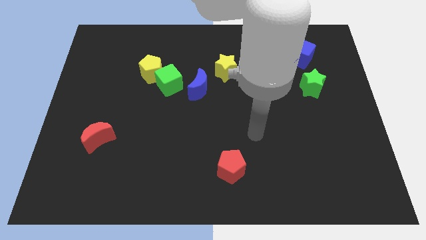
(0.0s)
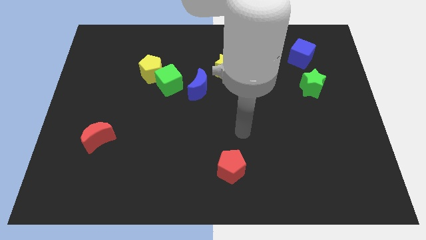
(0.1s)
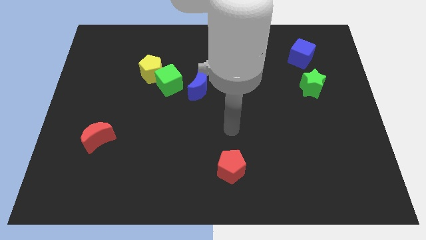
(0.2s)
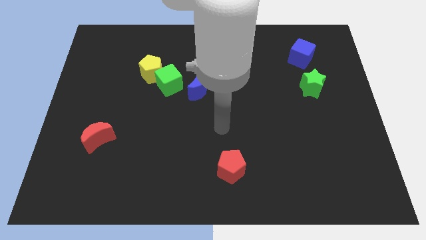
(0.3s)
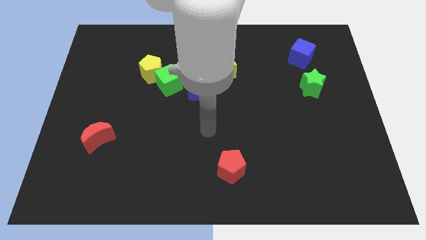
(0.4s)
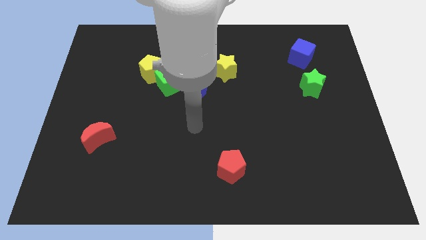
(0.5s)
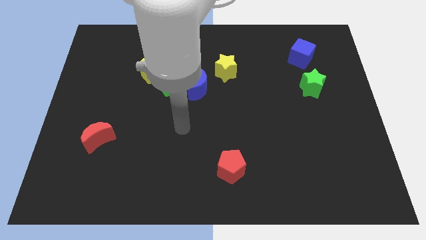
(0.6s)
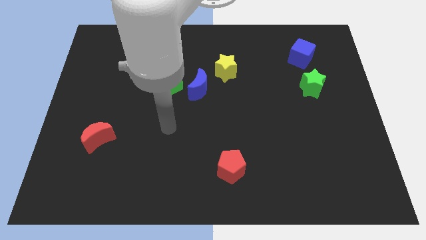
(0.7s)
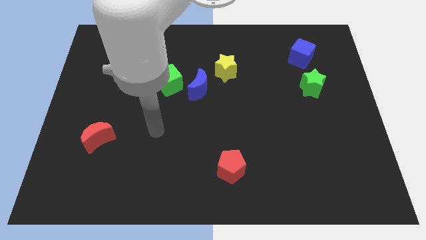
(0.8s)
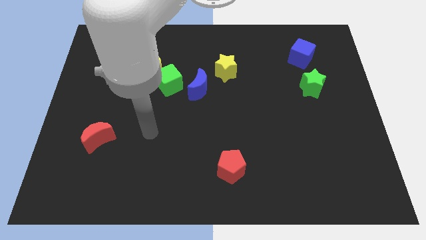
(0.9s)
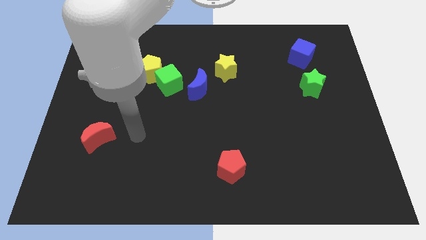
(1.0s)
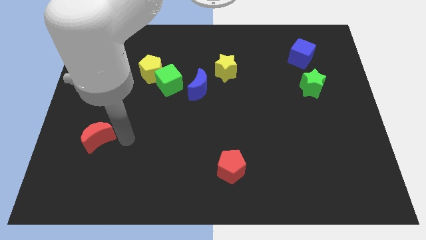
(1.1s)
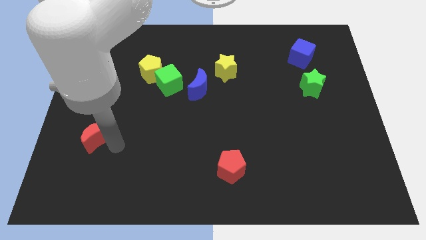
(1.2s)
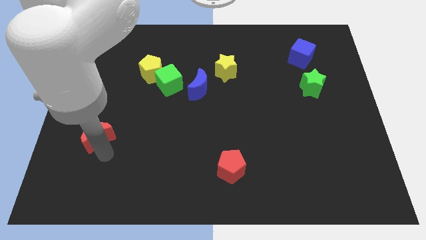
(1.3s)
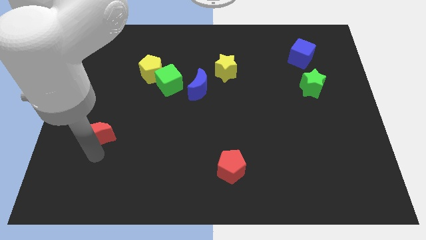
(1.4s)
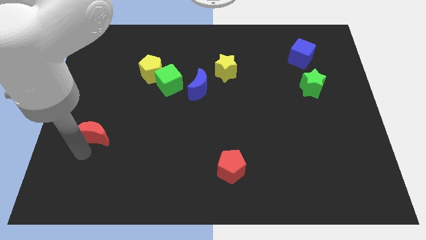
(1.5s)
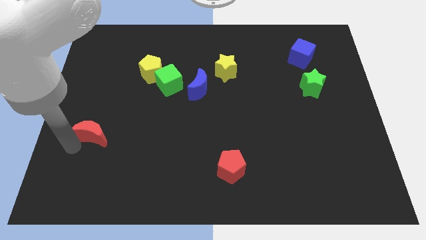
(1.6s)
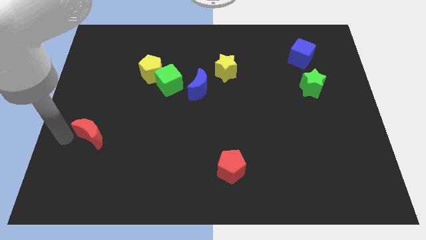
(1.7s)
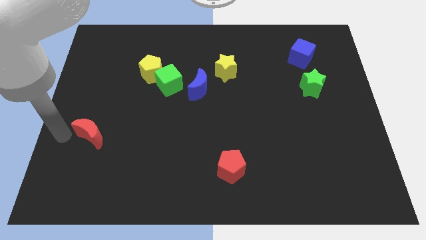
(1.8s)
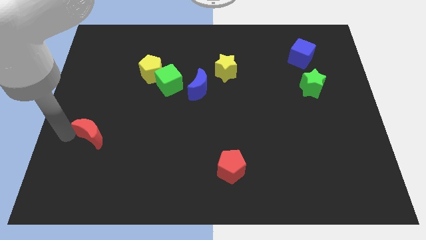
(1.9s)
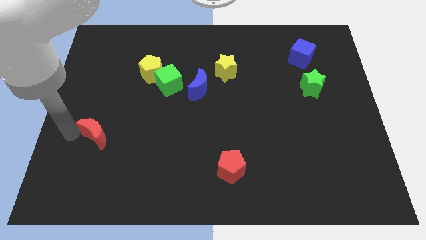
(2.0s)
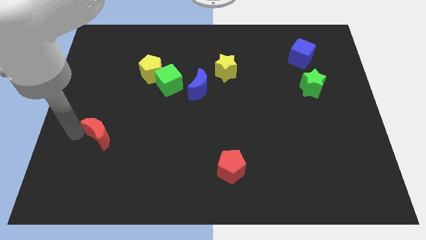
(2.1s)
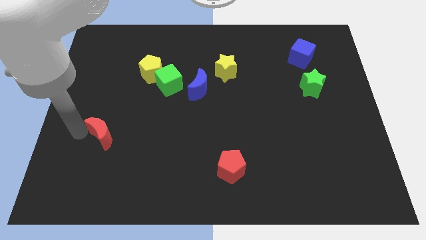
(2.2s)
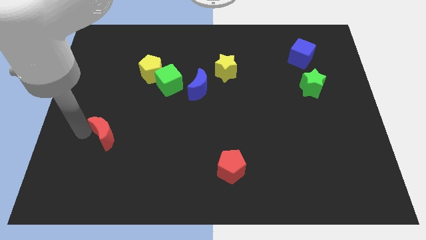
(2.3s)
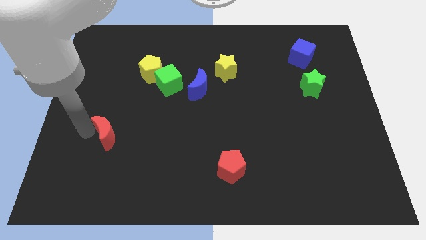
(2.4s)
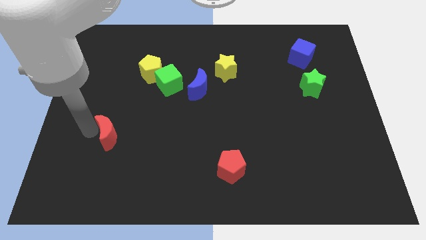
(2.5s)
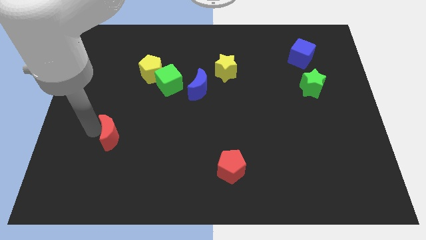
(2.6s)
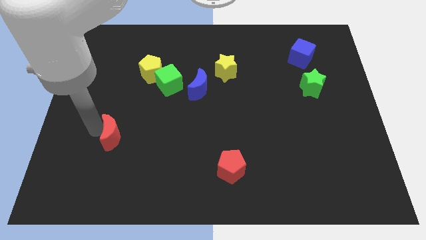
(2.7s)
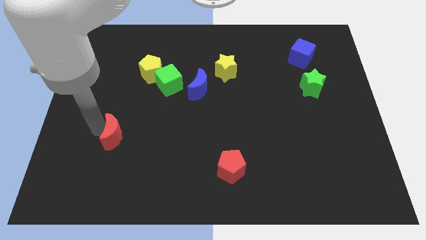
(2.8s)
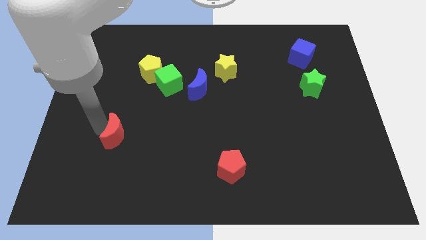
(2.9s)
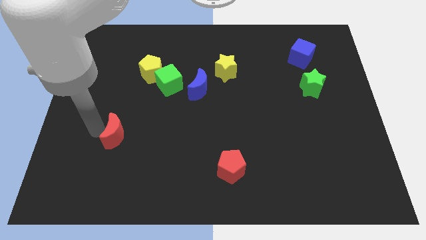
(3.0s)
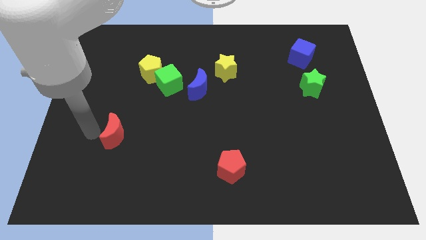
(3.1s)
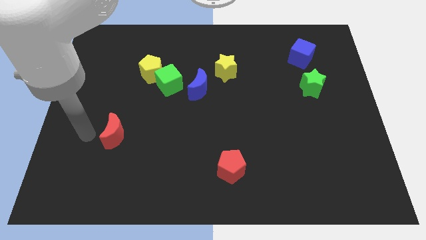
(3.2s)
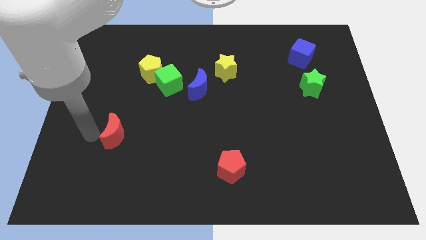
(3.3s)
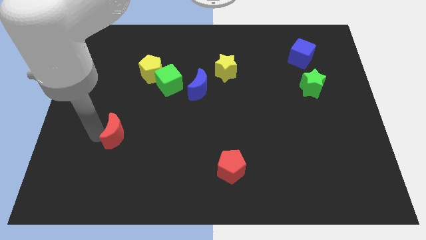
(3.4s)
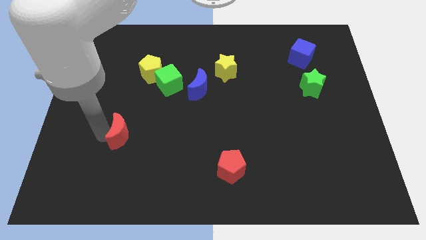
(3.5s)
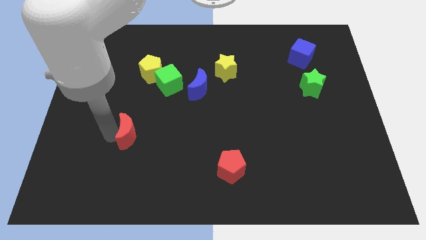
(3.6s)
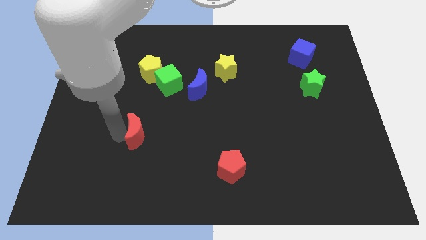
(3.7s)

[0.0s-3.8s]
push the red moon to the right a little

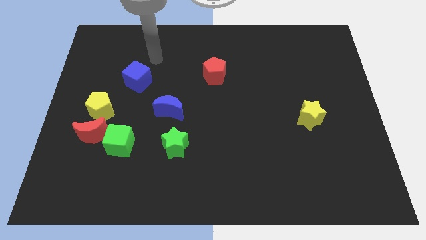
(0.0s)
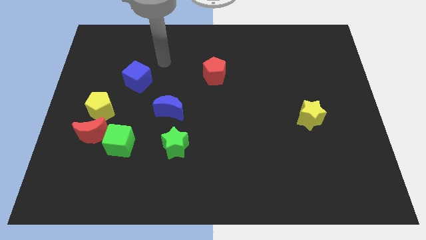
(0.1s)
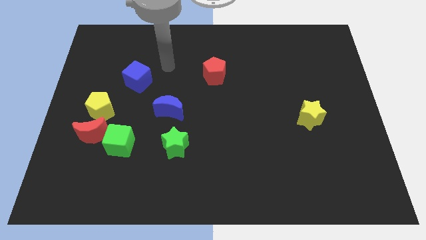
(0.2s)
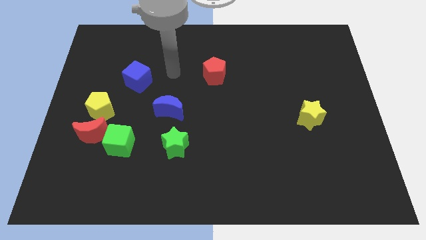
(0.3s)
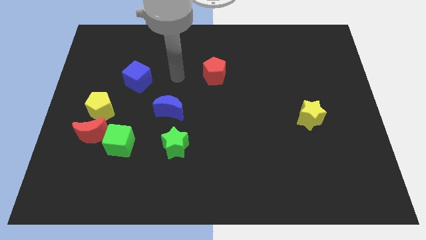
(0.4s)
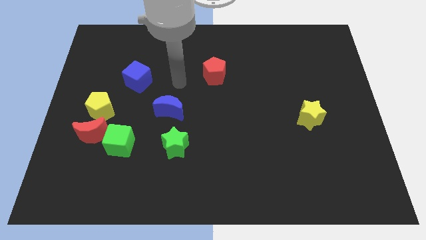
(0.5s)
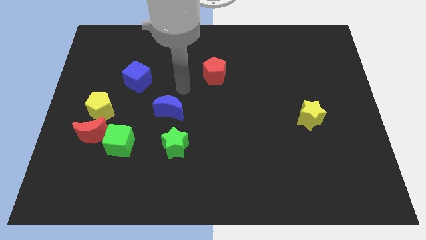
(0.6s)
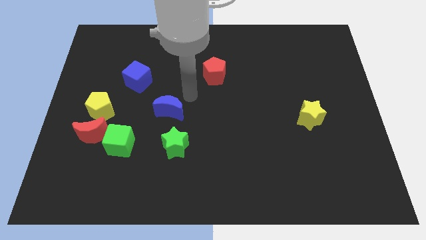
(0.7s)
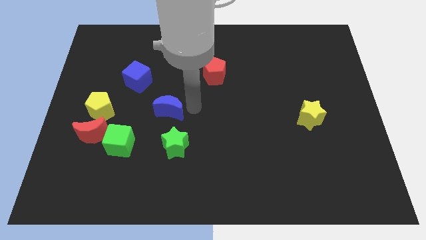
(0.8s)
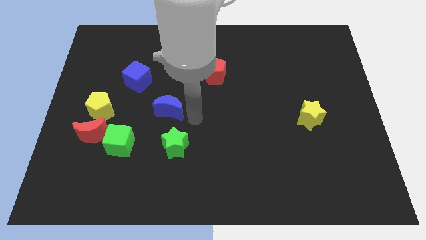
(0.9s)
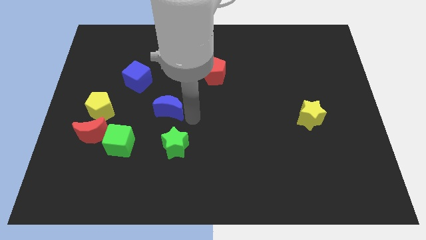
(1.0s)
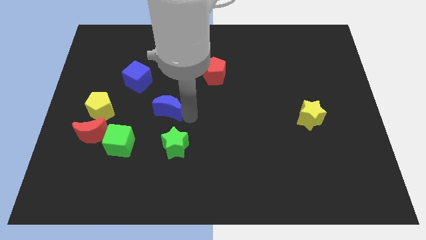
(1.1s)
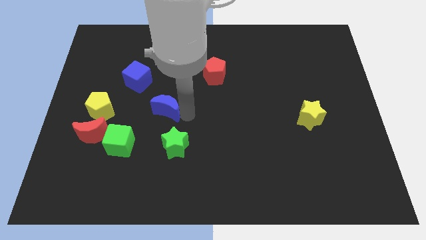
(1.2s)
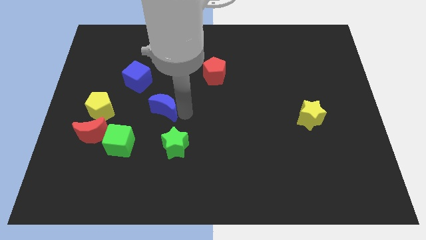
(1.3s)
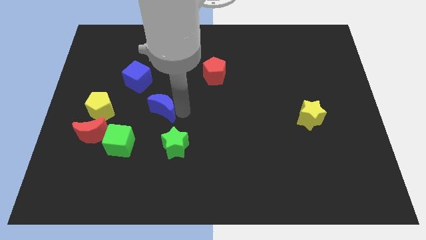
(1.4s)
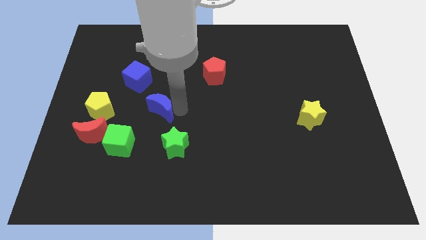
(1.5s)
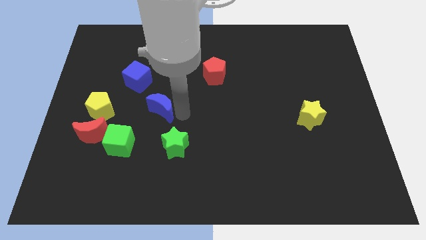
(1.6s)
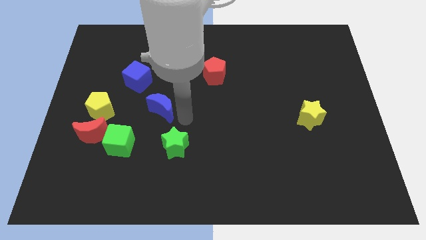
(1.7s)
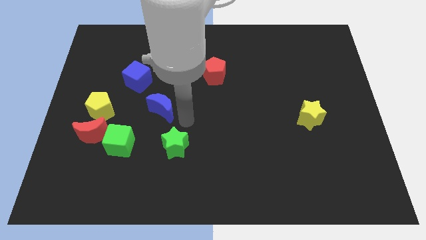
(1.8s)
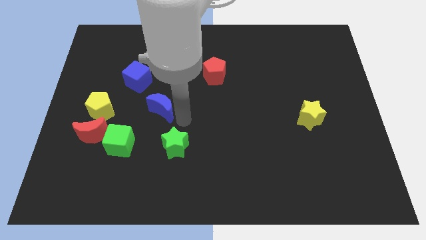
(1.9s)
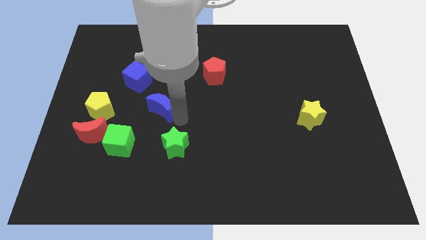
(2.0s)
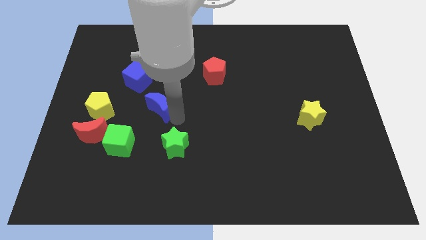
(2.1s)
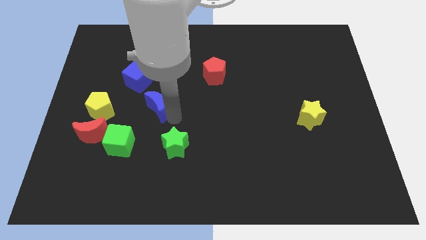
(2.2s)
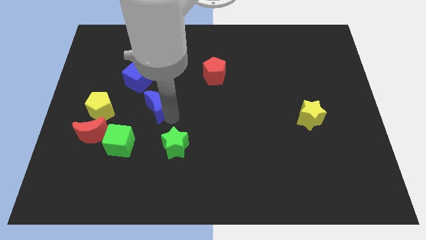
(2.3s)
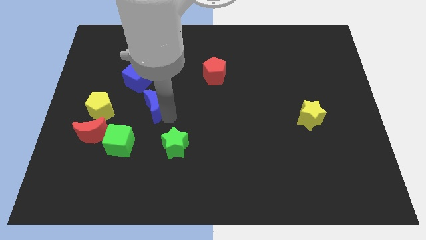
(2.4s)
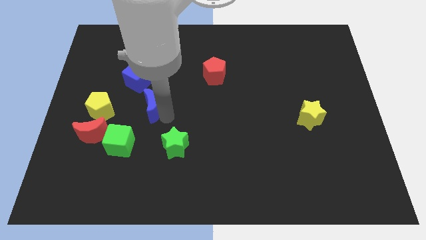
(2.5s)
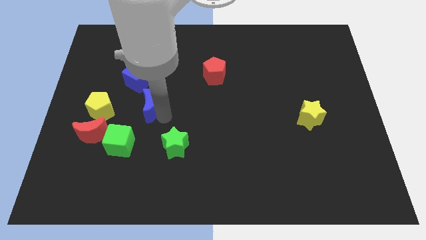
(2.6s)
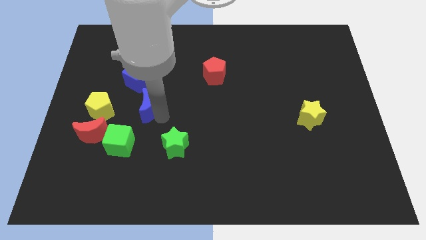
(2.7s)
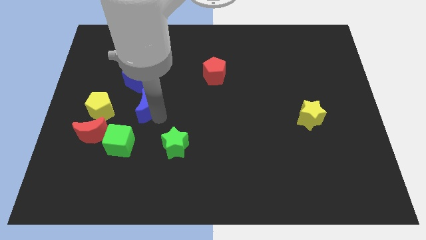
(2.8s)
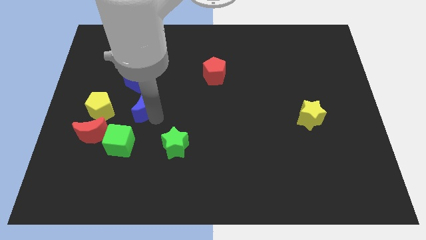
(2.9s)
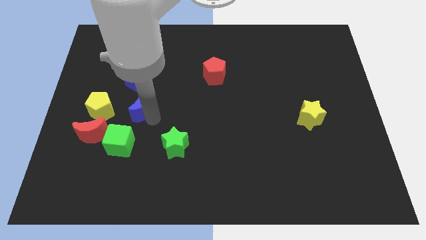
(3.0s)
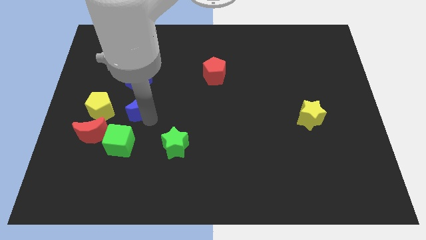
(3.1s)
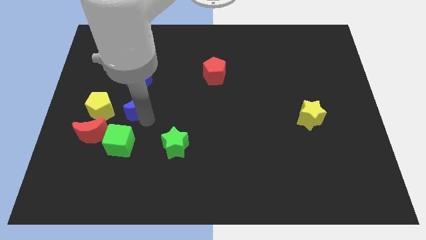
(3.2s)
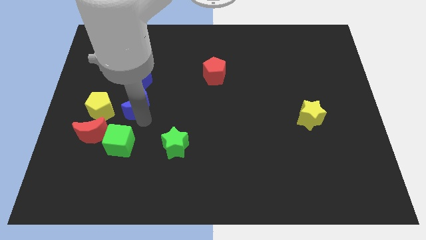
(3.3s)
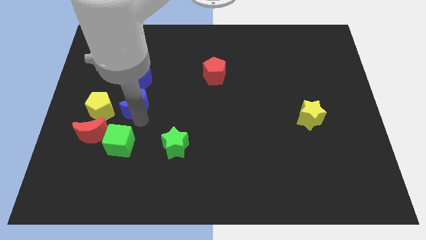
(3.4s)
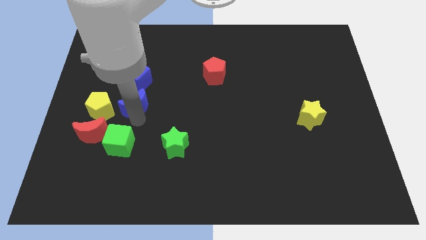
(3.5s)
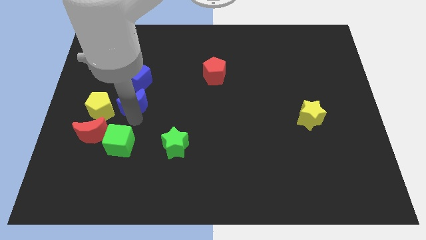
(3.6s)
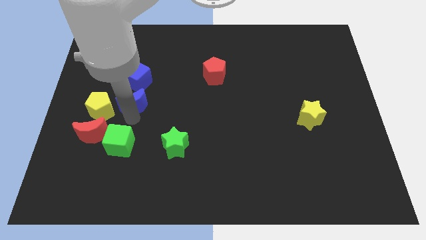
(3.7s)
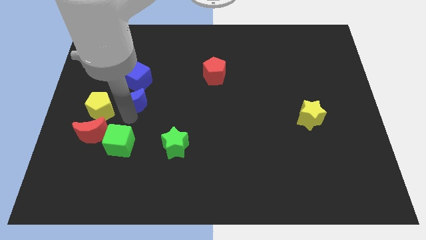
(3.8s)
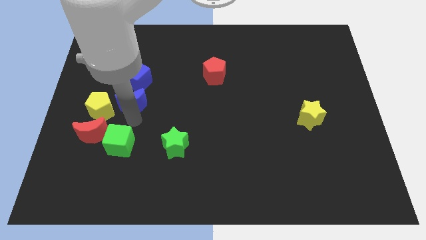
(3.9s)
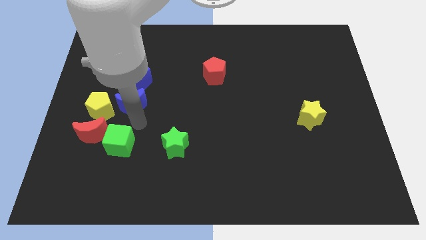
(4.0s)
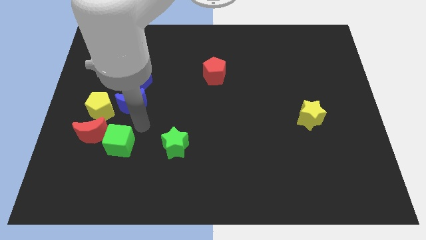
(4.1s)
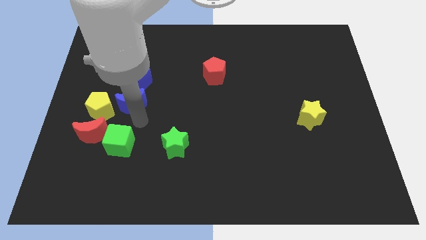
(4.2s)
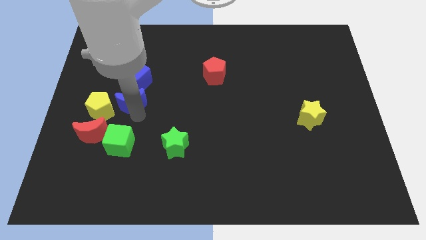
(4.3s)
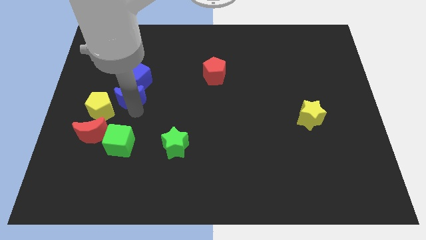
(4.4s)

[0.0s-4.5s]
push the blue moon upwards and left somewhat
